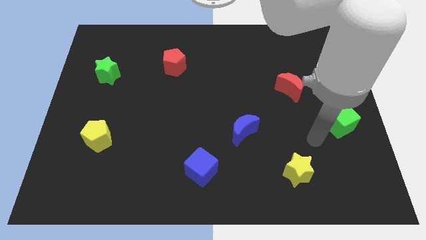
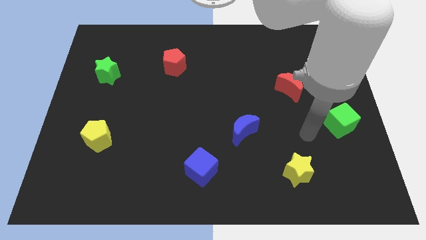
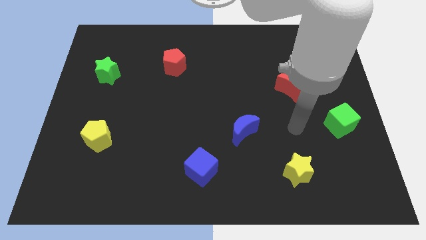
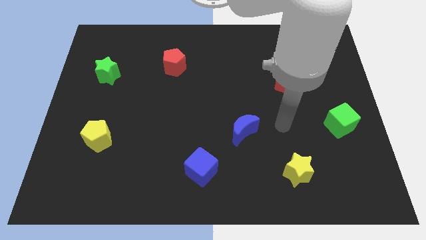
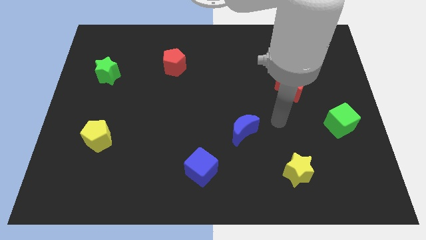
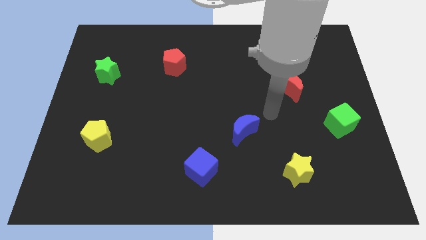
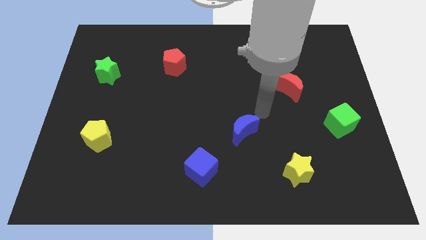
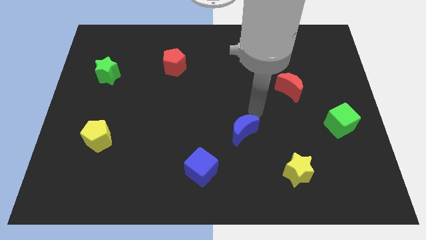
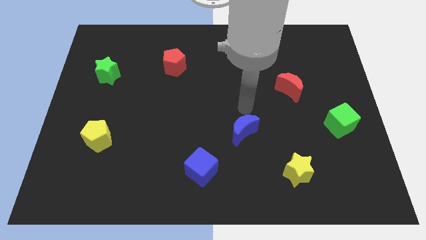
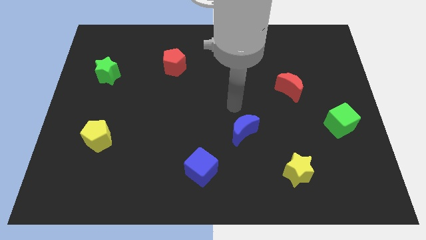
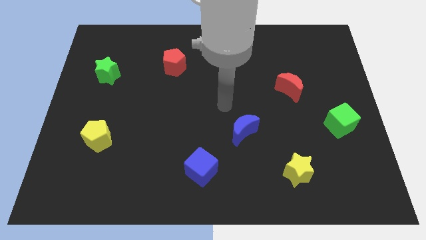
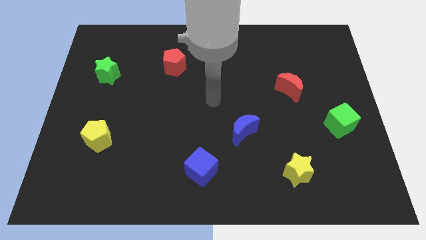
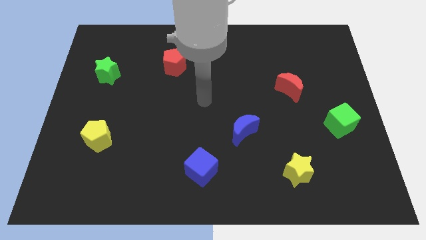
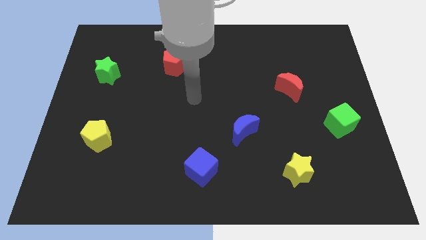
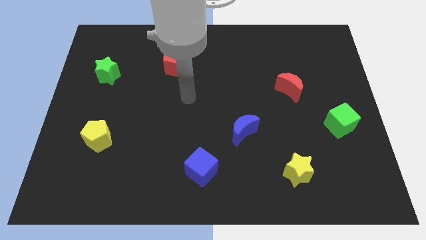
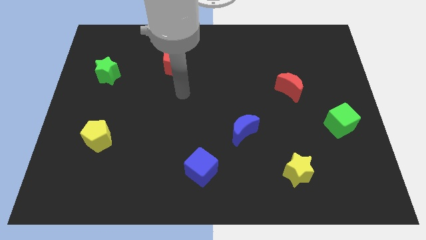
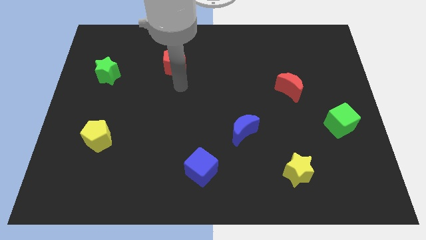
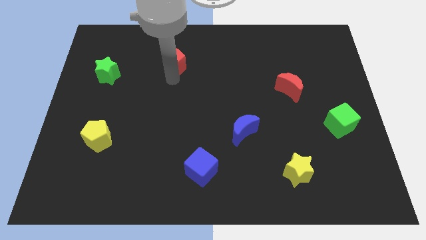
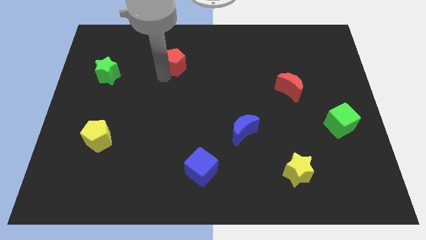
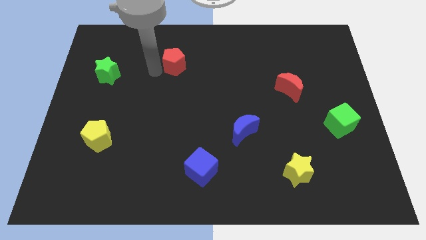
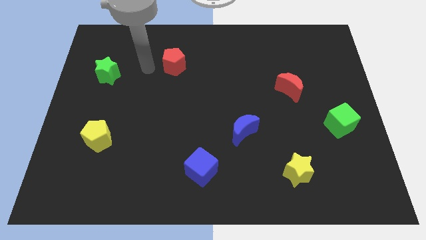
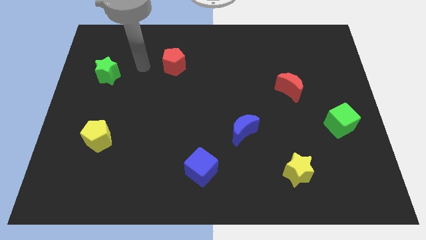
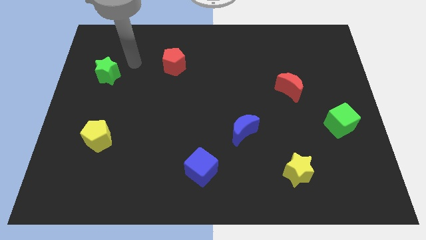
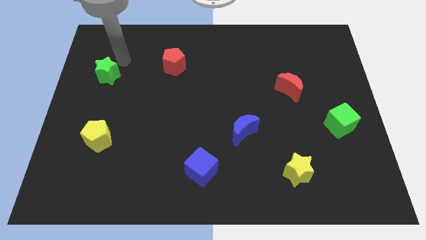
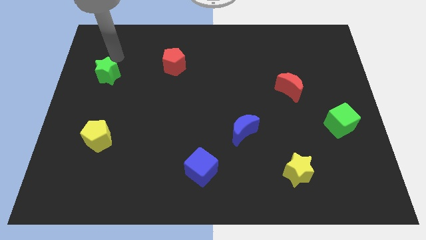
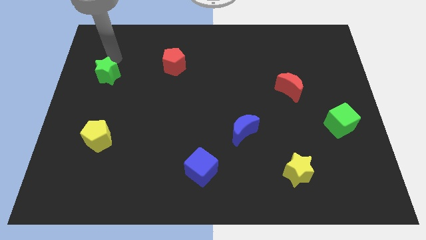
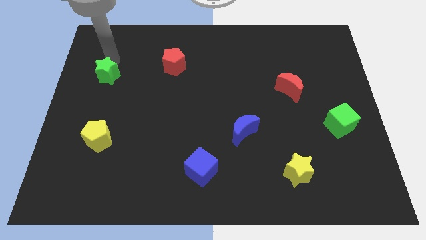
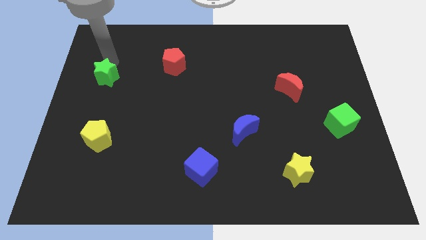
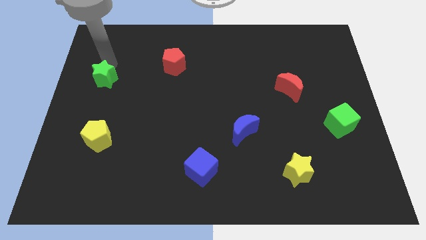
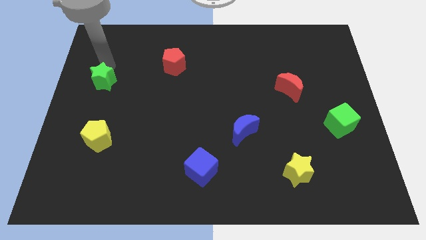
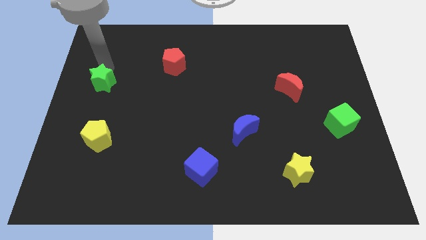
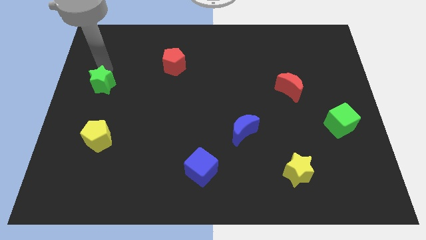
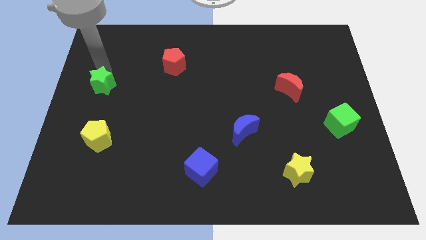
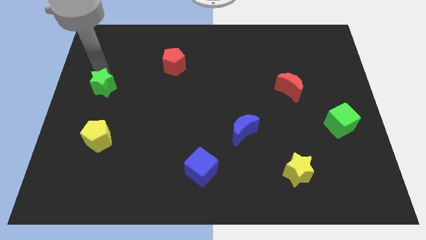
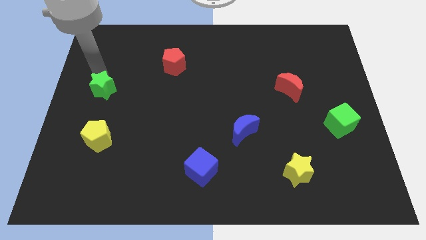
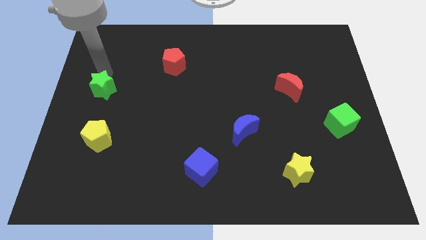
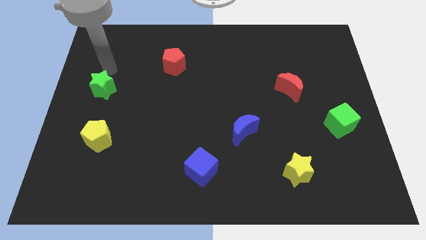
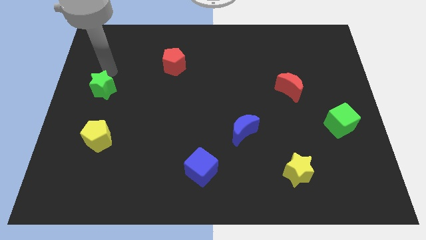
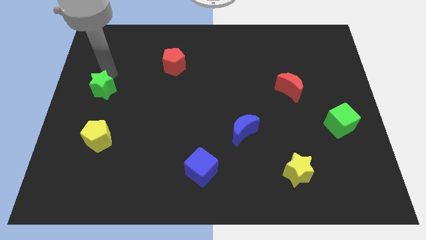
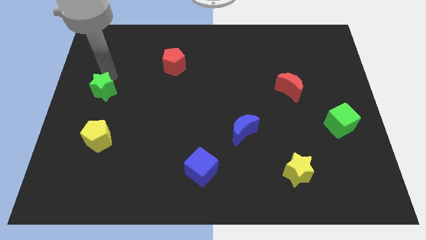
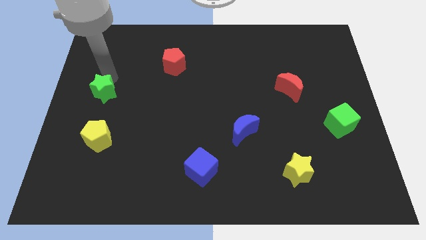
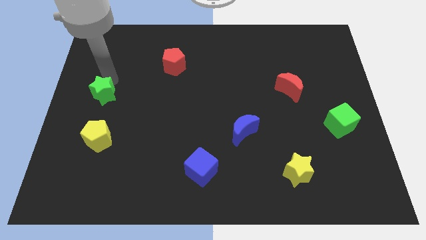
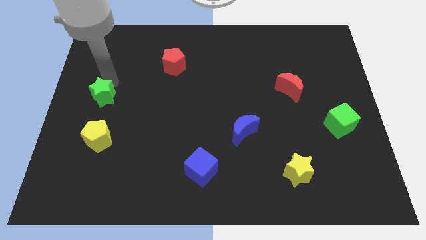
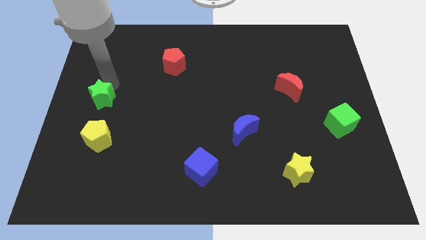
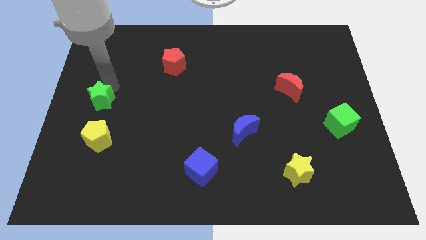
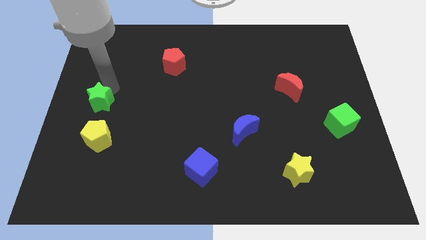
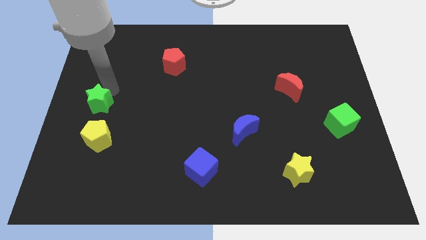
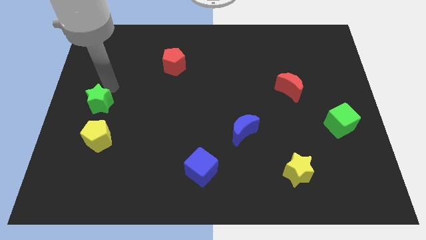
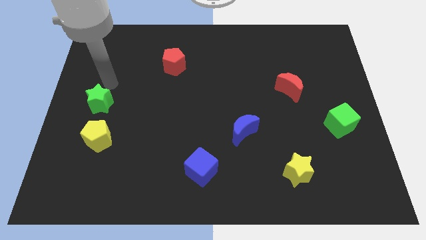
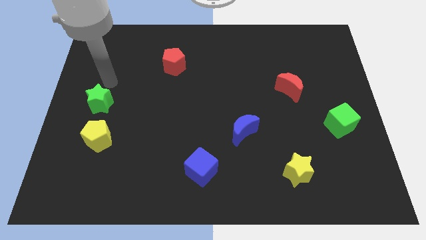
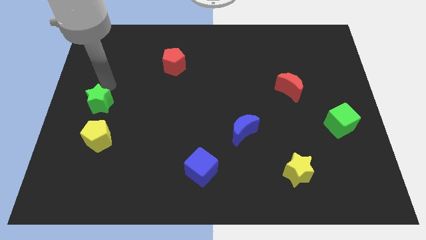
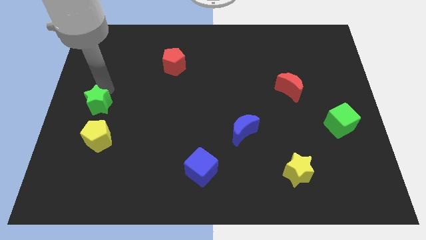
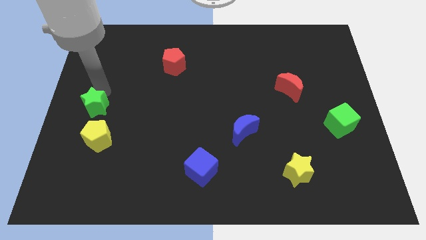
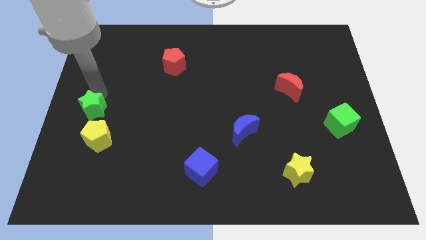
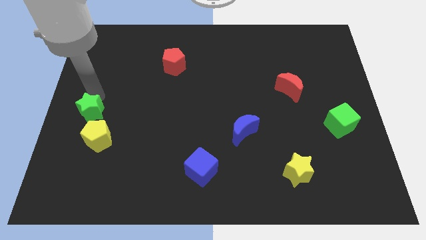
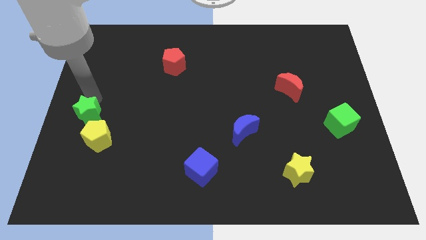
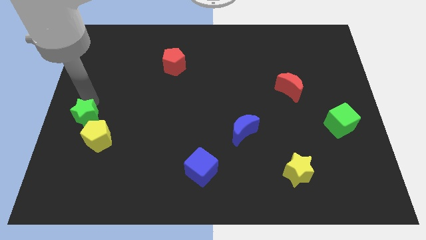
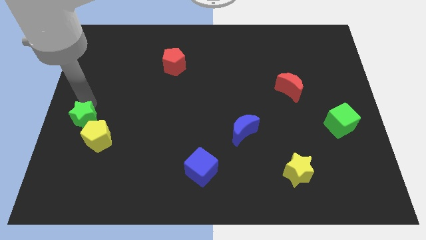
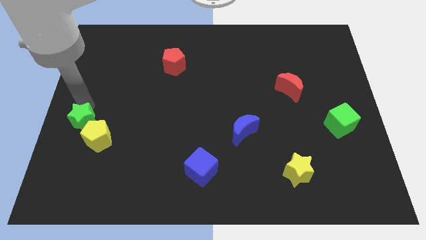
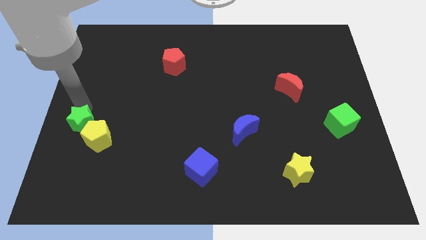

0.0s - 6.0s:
slide the green star close to the yellow pentagon
